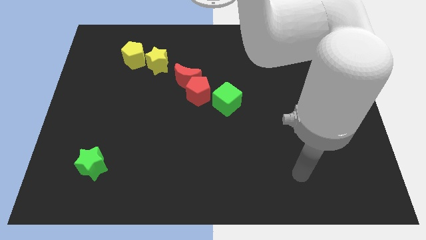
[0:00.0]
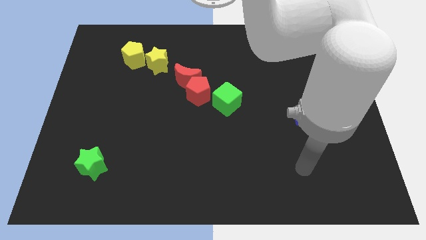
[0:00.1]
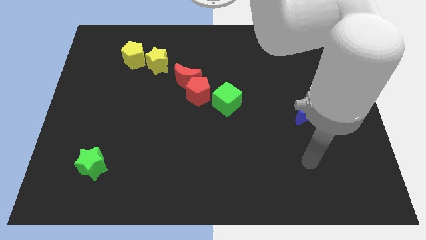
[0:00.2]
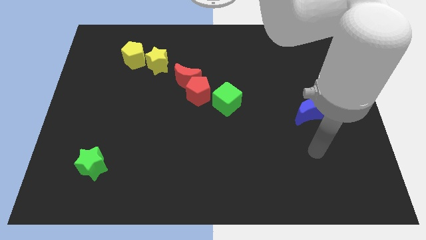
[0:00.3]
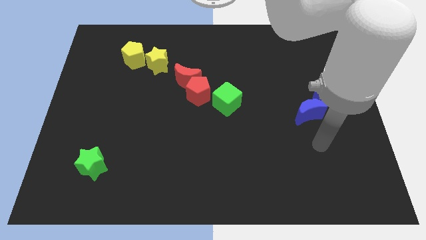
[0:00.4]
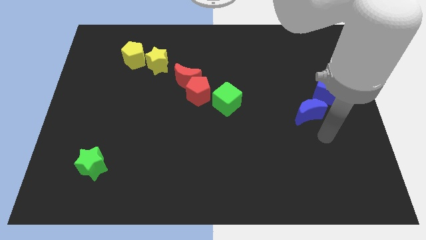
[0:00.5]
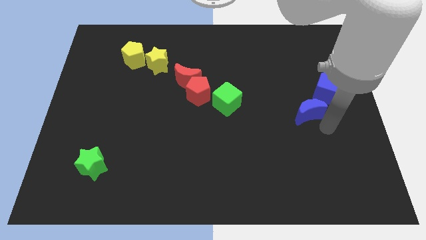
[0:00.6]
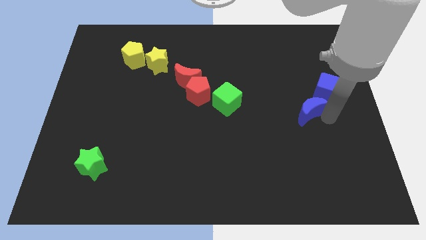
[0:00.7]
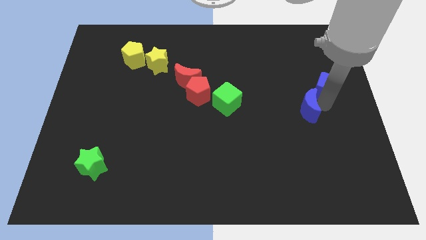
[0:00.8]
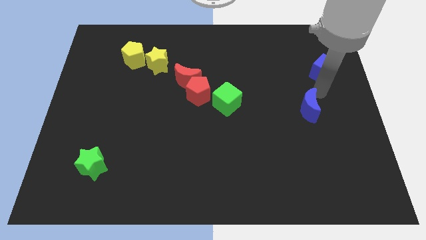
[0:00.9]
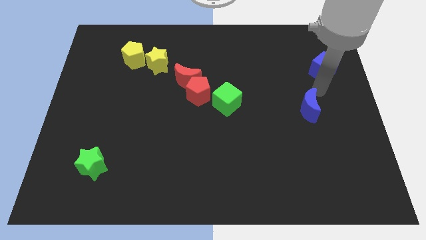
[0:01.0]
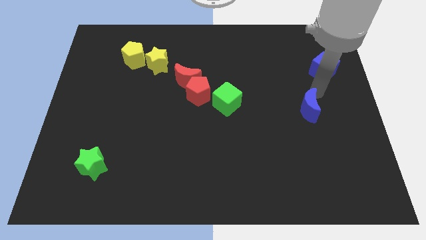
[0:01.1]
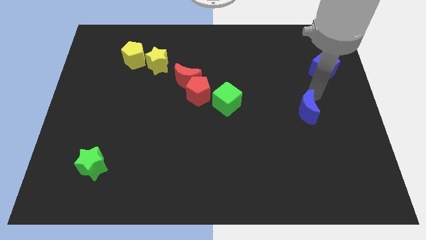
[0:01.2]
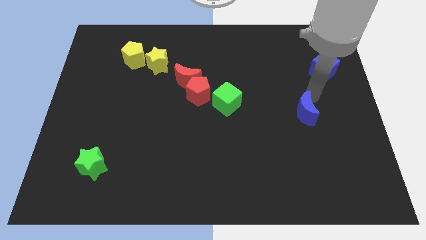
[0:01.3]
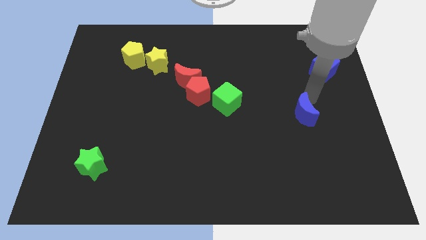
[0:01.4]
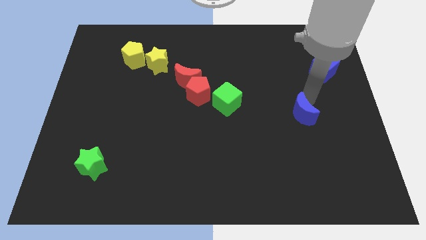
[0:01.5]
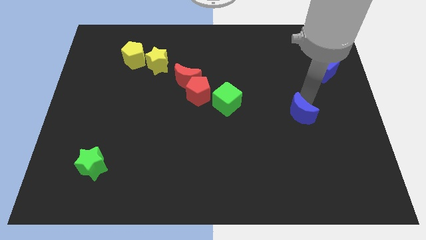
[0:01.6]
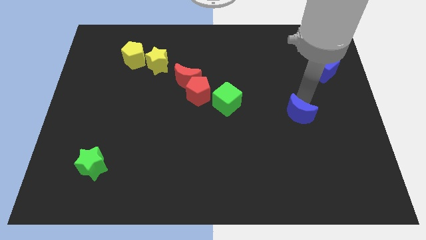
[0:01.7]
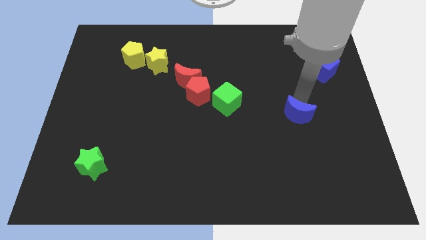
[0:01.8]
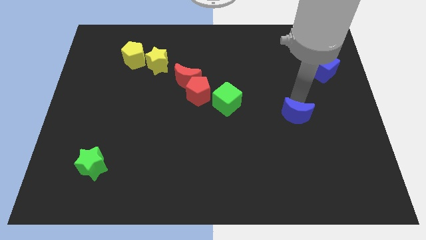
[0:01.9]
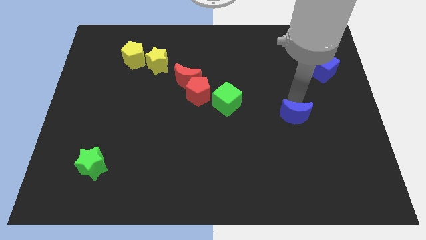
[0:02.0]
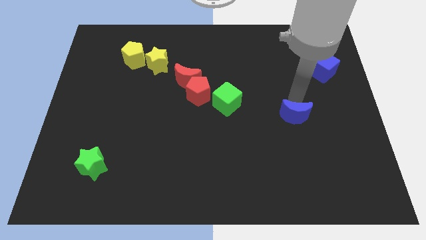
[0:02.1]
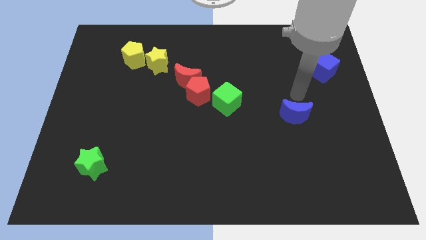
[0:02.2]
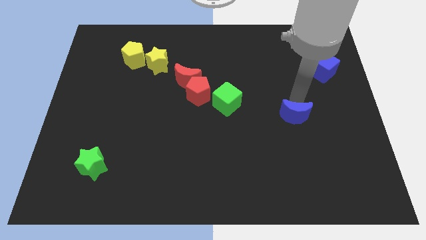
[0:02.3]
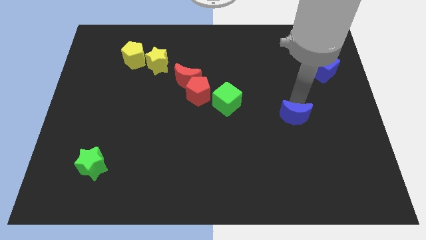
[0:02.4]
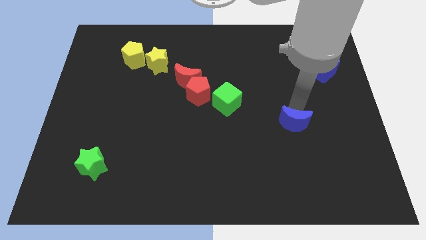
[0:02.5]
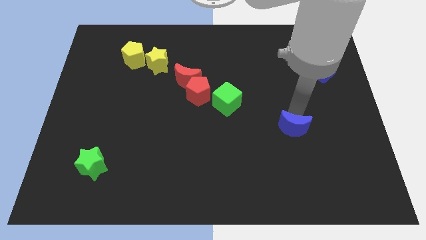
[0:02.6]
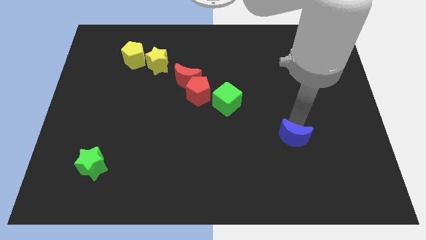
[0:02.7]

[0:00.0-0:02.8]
move the blue moon a little diagonally down and left

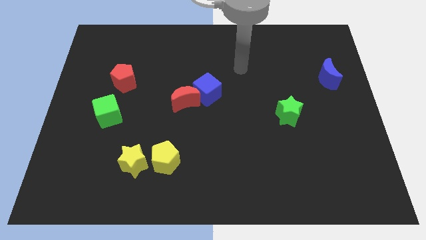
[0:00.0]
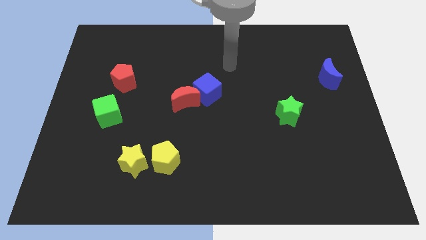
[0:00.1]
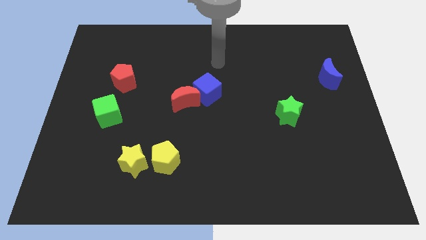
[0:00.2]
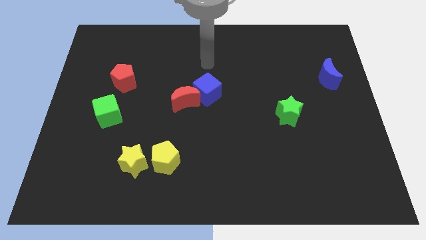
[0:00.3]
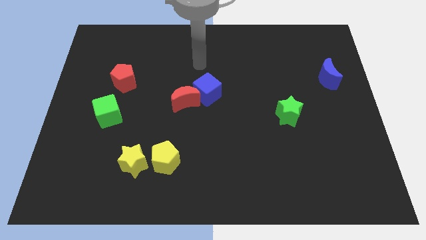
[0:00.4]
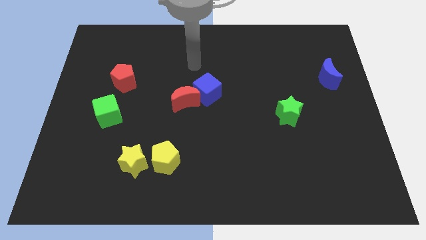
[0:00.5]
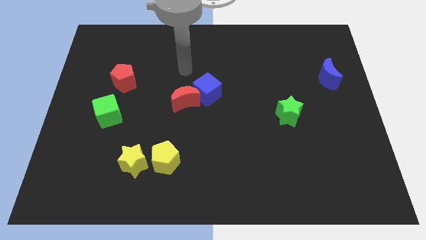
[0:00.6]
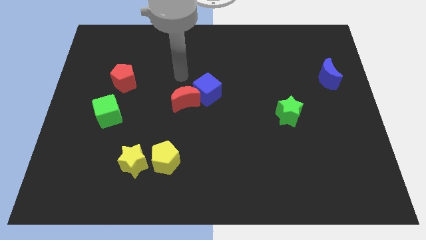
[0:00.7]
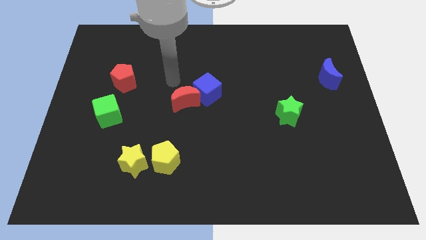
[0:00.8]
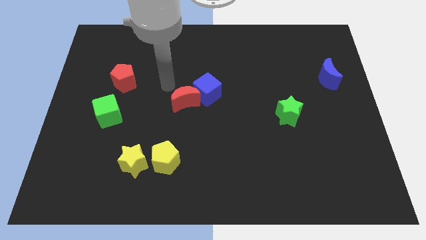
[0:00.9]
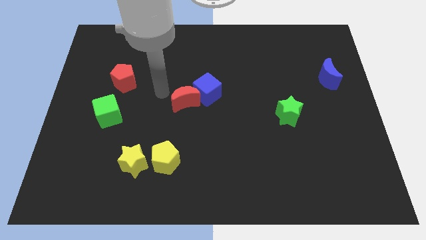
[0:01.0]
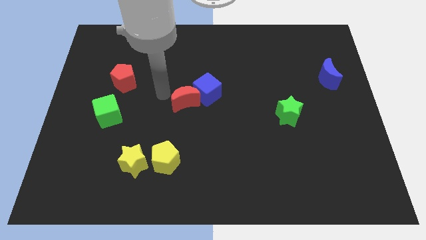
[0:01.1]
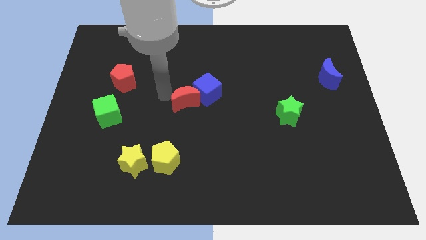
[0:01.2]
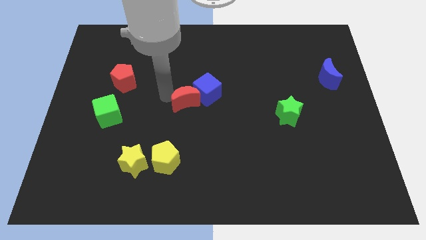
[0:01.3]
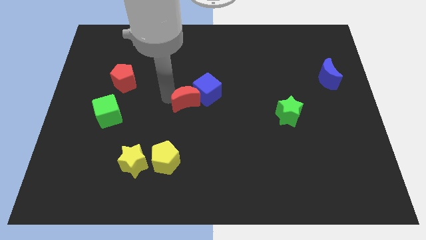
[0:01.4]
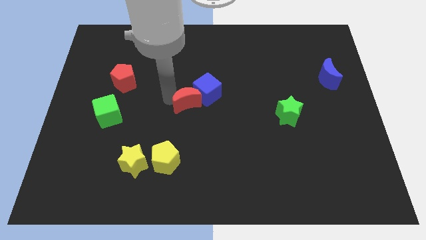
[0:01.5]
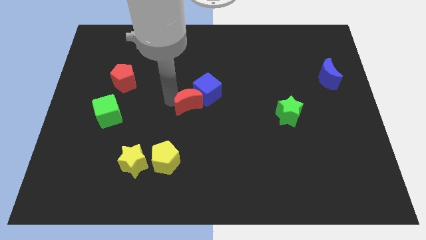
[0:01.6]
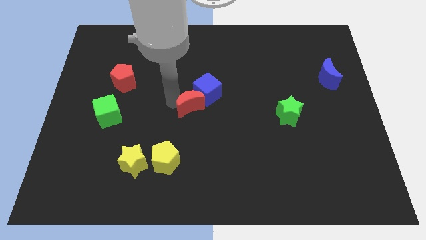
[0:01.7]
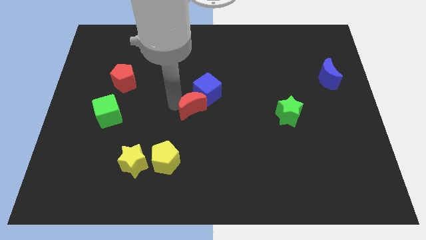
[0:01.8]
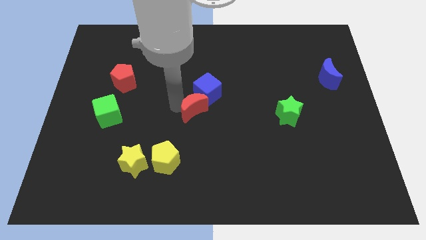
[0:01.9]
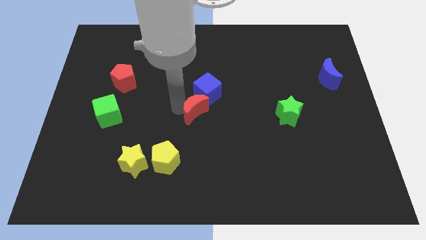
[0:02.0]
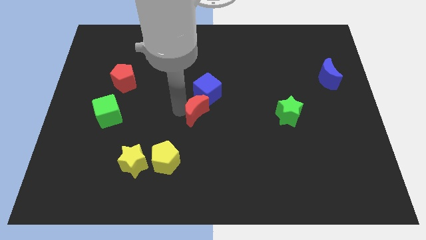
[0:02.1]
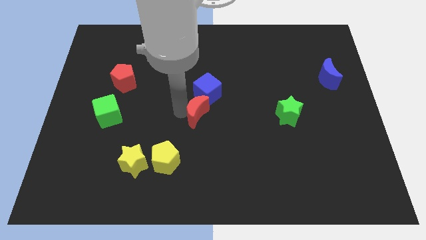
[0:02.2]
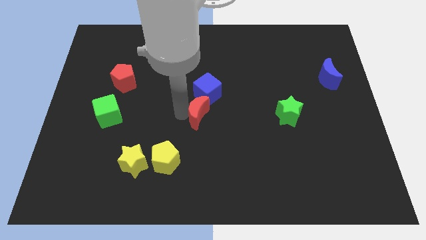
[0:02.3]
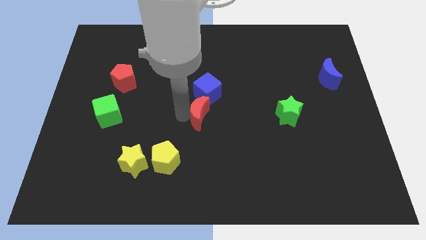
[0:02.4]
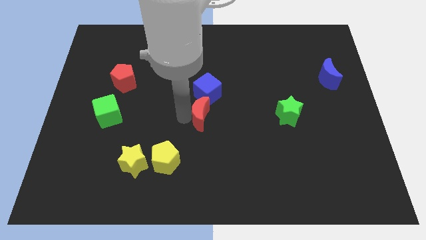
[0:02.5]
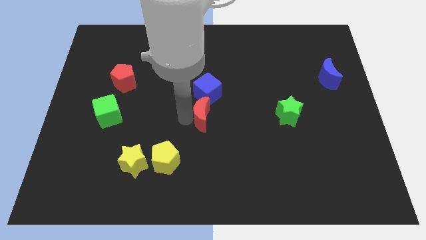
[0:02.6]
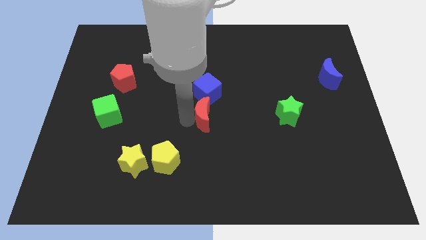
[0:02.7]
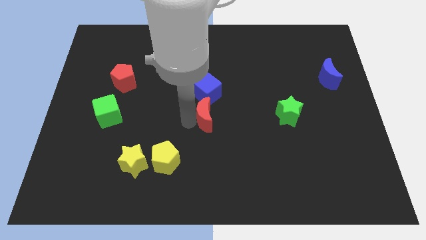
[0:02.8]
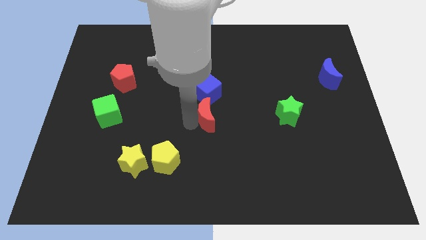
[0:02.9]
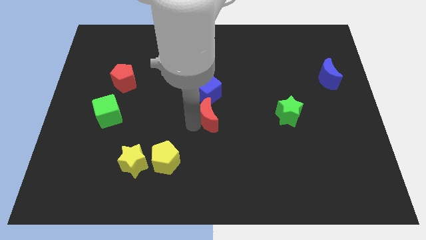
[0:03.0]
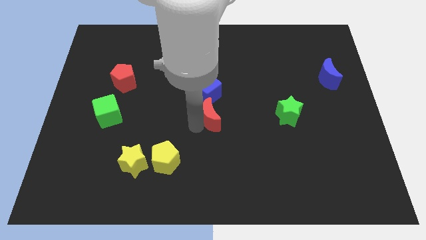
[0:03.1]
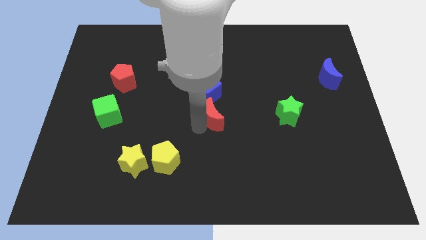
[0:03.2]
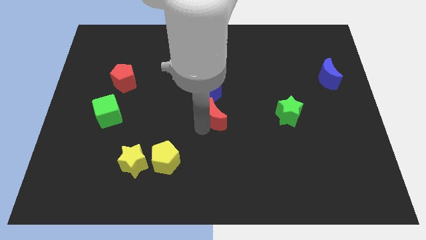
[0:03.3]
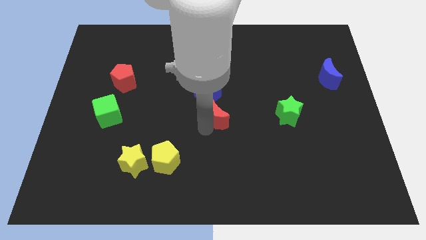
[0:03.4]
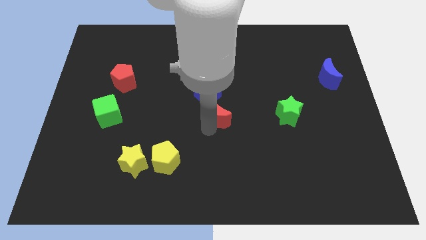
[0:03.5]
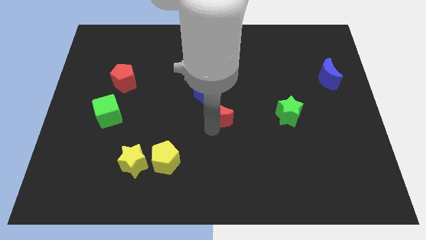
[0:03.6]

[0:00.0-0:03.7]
slightly move the red moon to the right

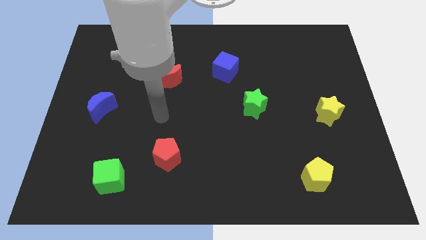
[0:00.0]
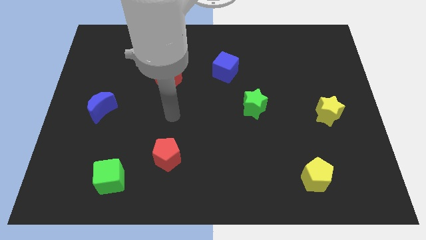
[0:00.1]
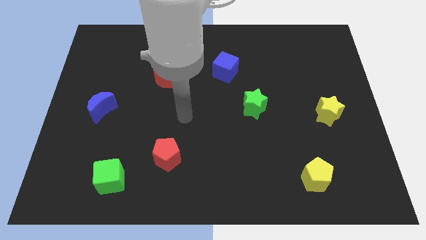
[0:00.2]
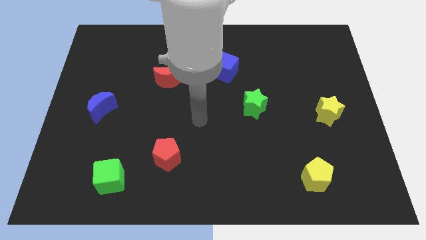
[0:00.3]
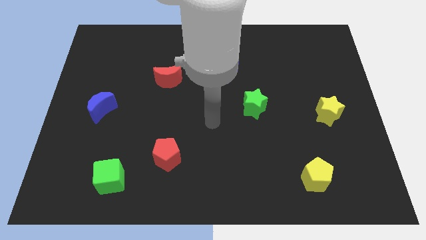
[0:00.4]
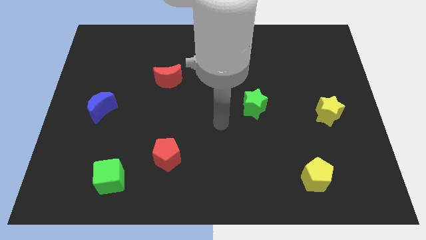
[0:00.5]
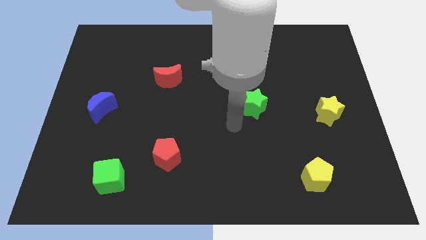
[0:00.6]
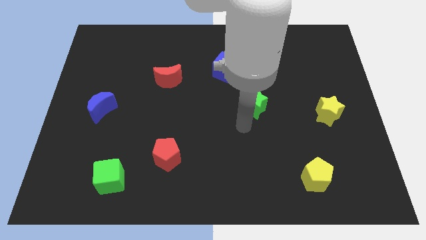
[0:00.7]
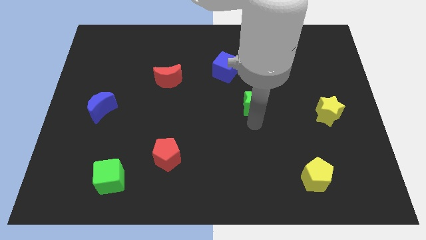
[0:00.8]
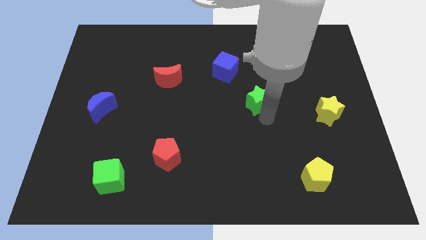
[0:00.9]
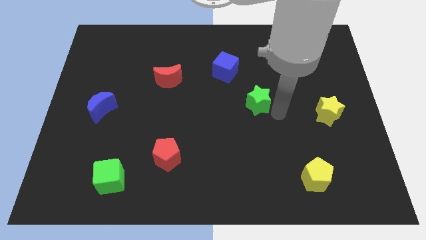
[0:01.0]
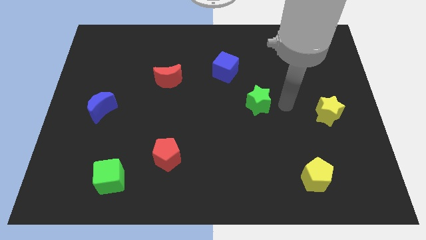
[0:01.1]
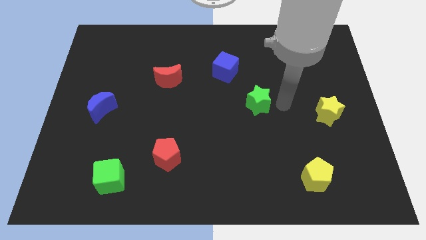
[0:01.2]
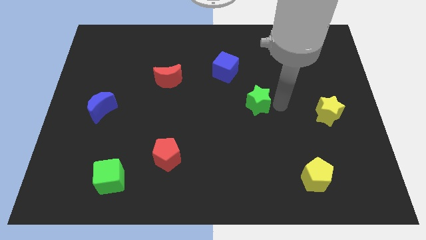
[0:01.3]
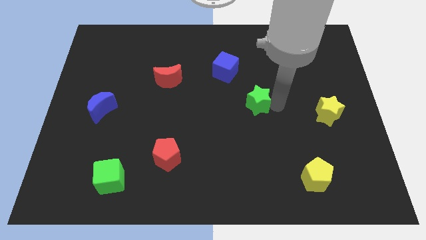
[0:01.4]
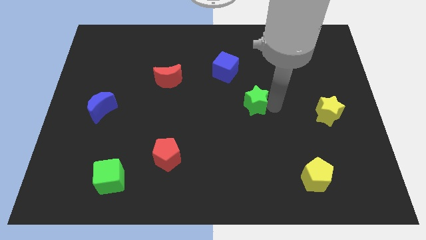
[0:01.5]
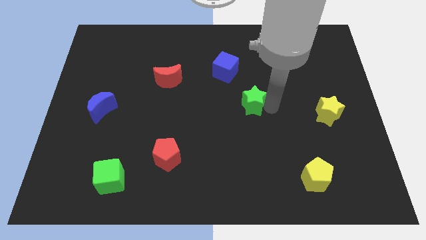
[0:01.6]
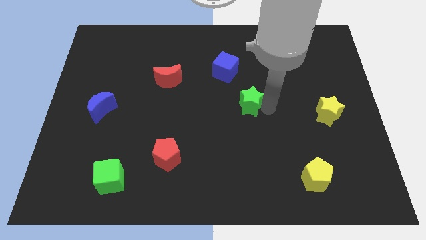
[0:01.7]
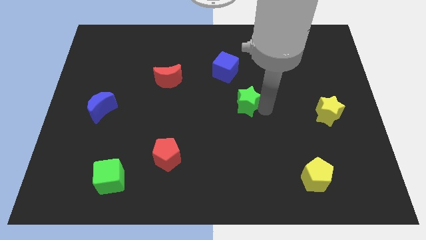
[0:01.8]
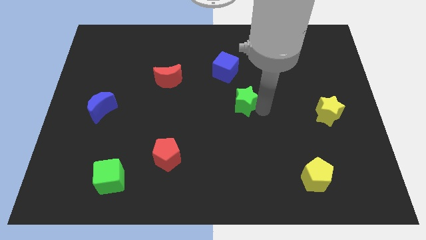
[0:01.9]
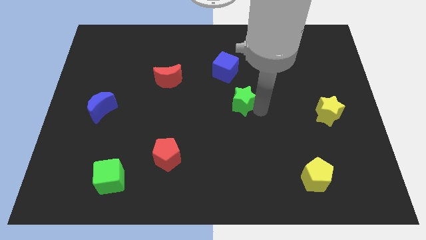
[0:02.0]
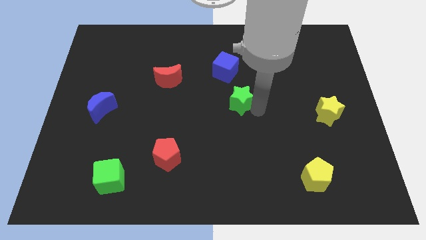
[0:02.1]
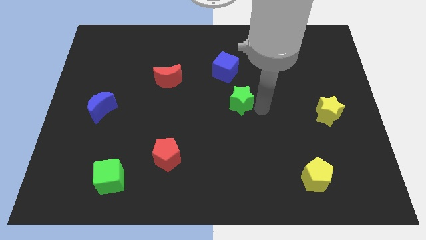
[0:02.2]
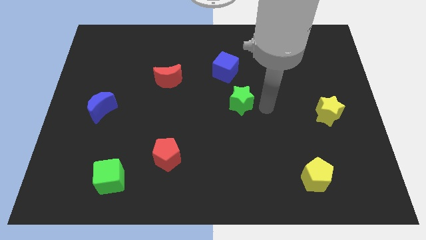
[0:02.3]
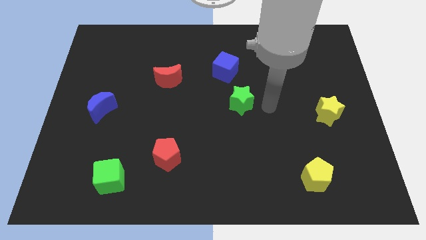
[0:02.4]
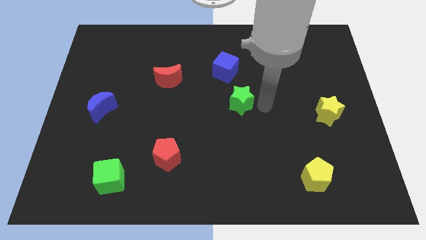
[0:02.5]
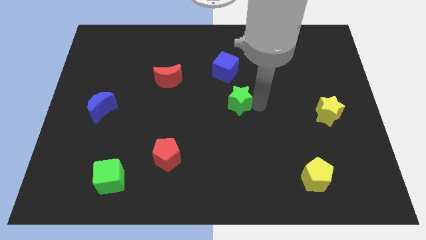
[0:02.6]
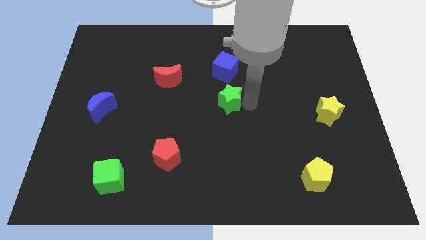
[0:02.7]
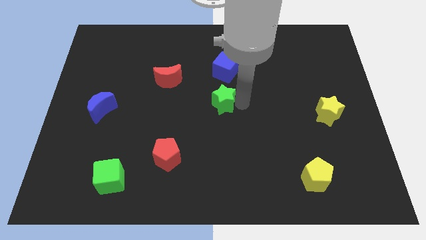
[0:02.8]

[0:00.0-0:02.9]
push the green star left a little
